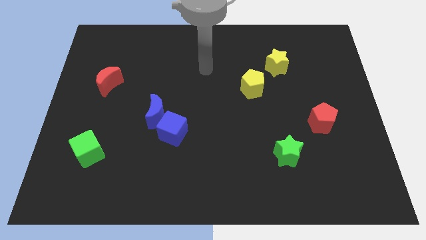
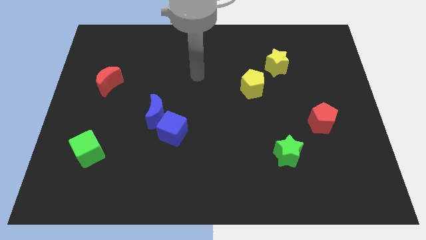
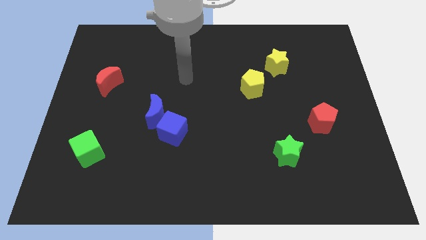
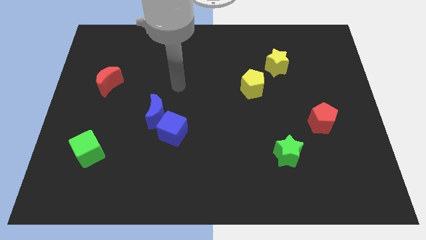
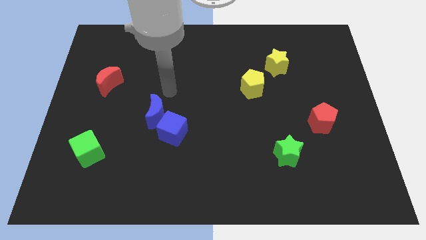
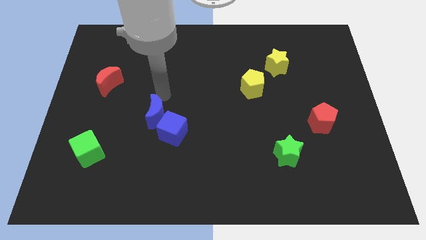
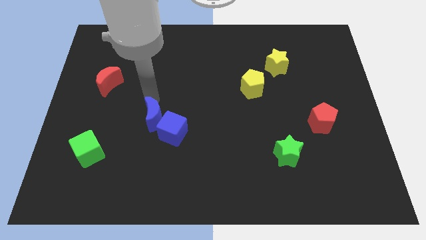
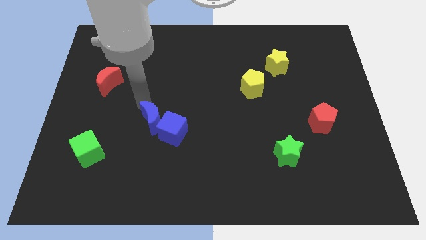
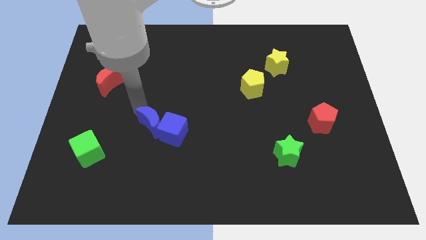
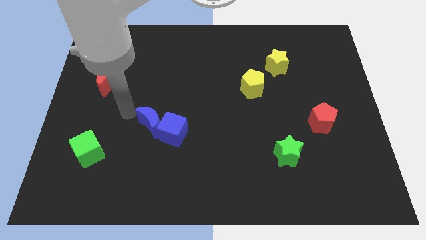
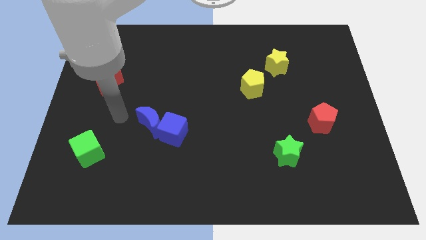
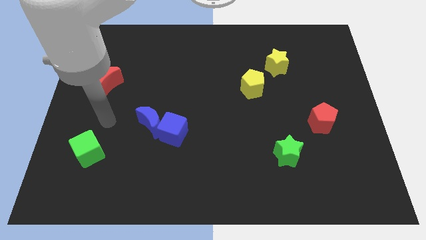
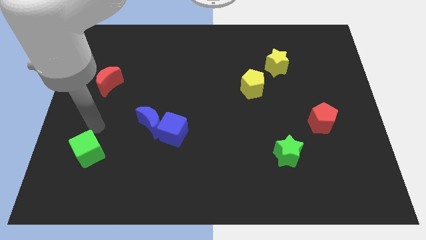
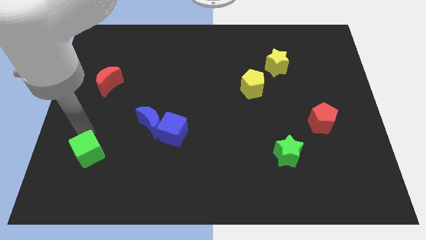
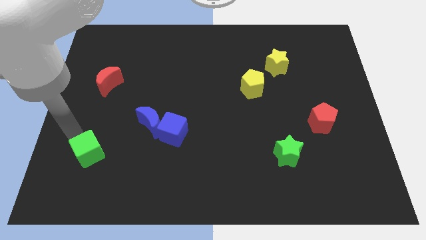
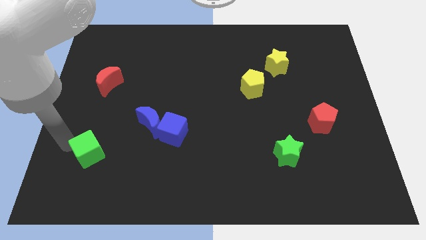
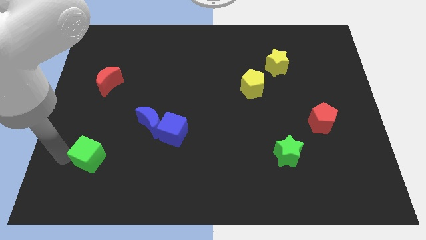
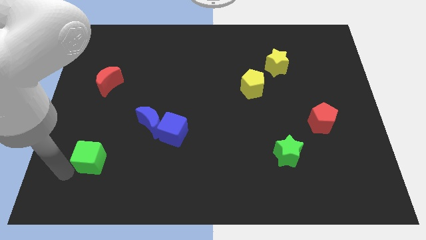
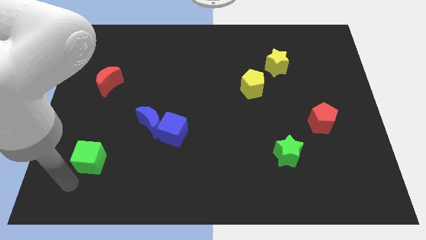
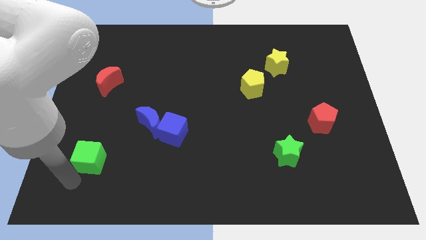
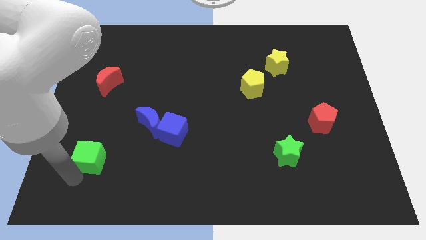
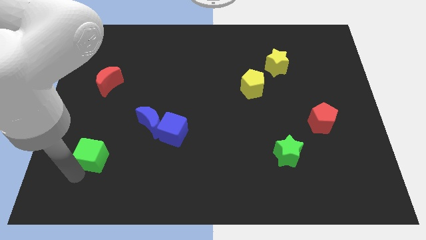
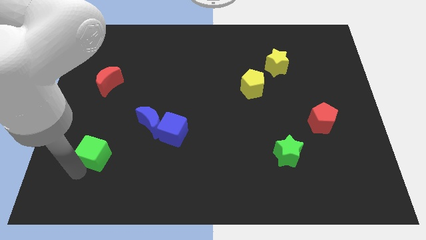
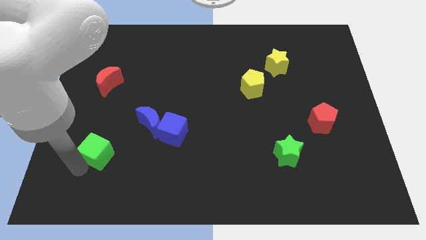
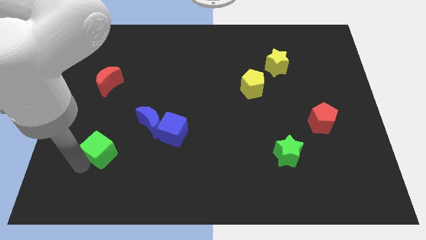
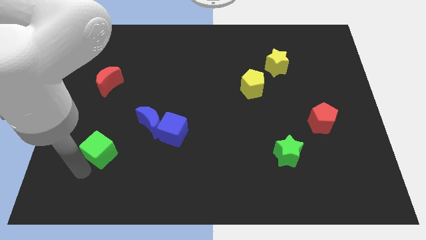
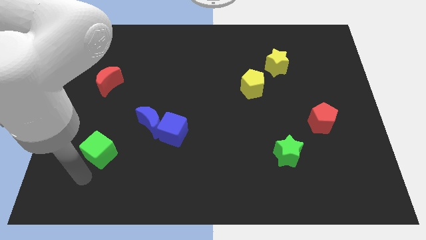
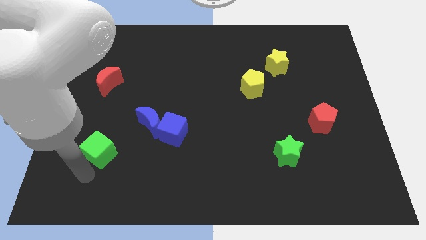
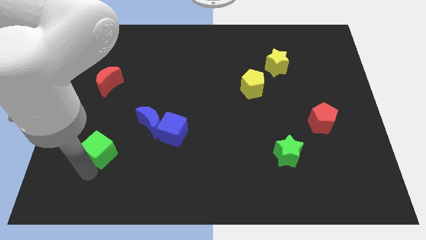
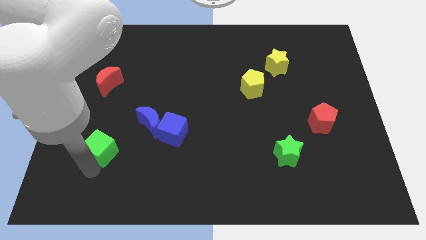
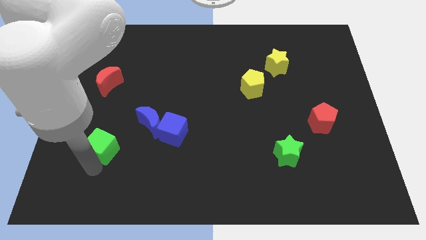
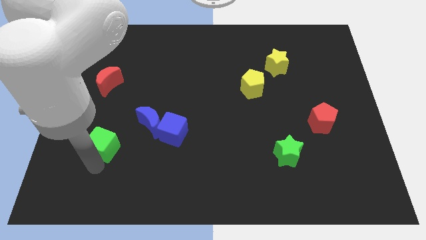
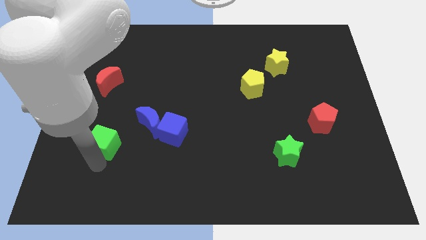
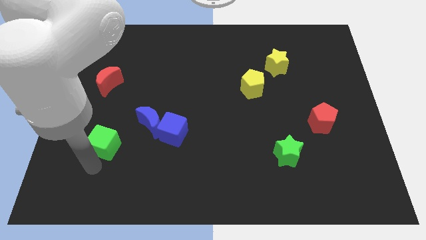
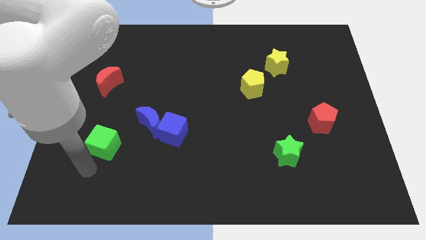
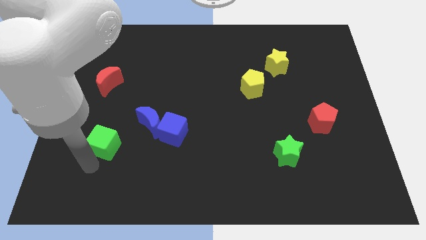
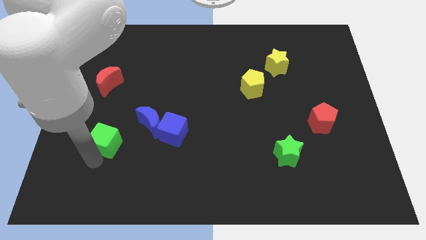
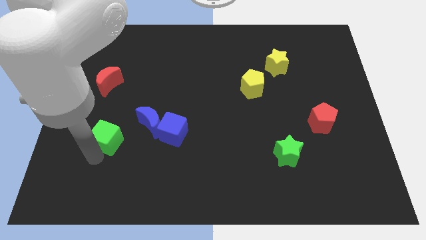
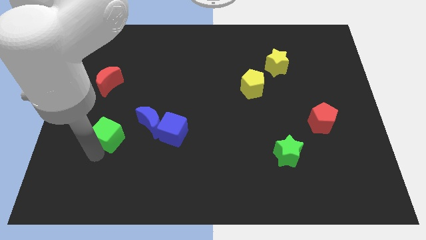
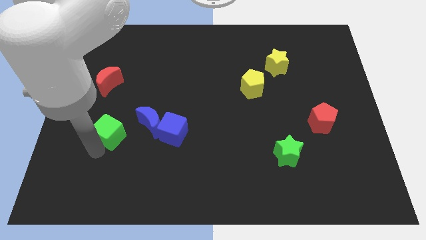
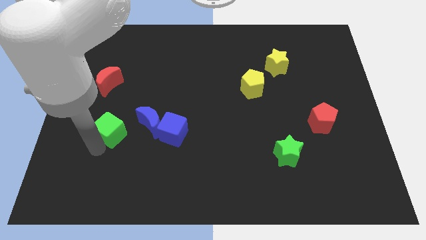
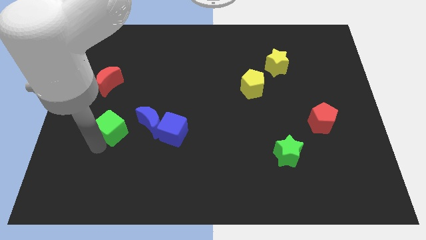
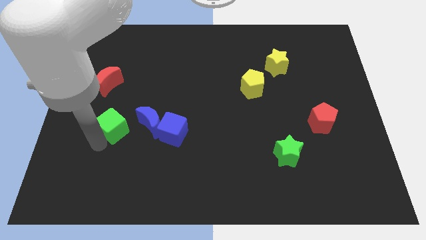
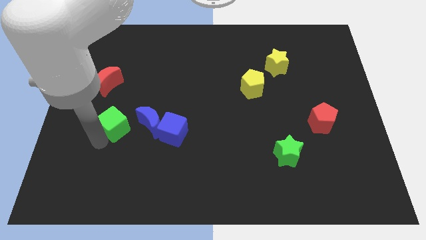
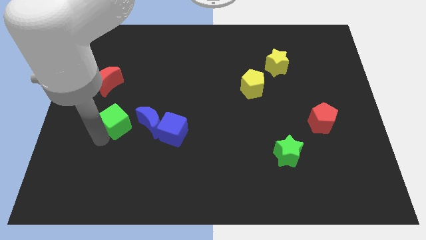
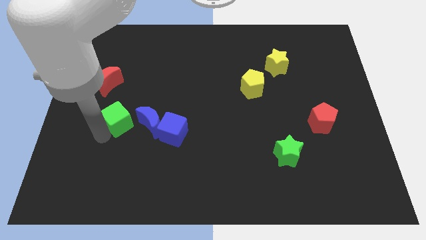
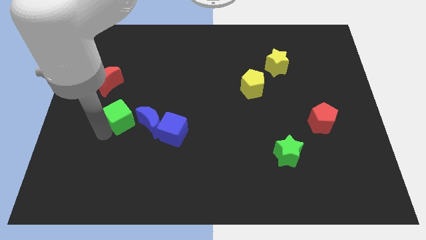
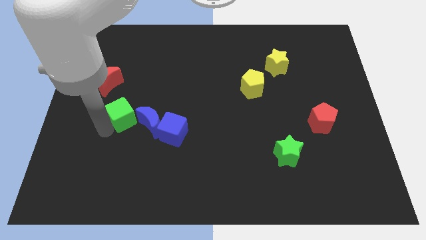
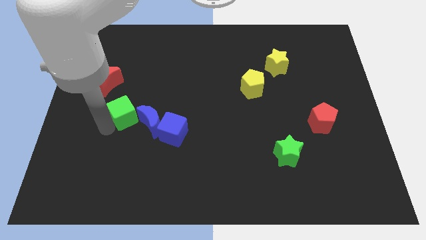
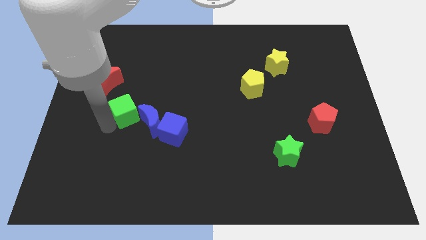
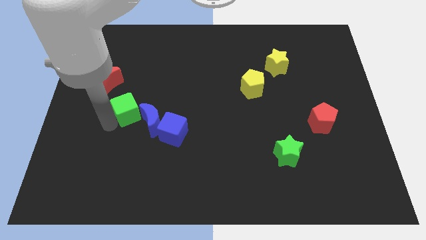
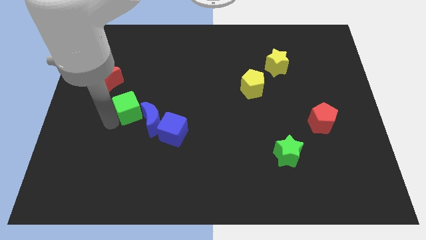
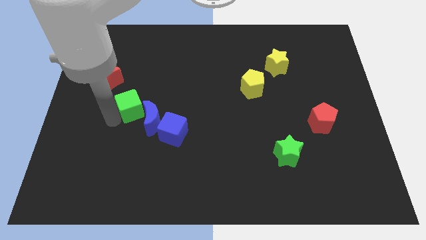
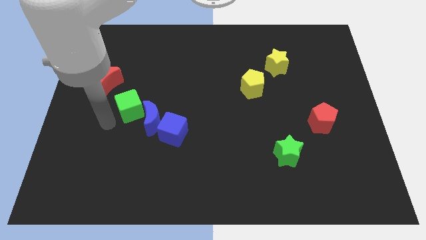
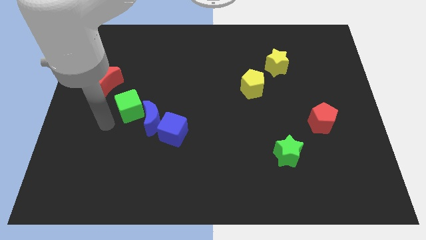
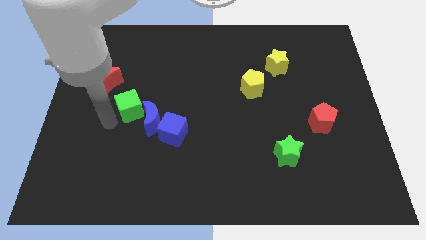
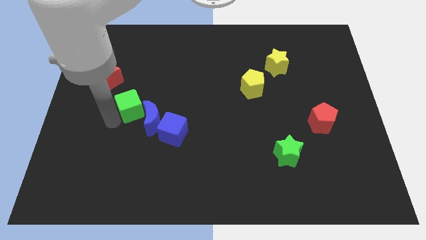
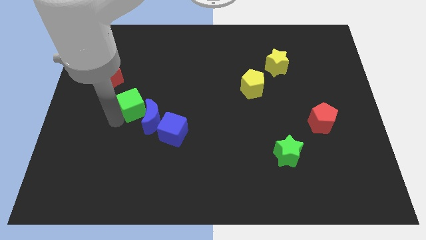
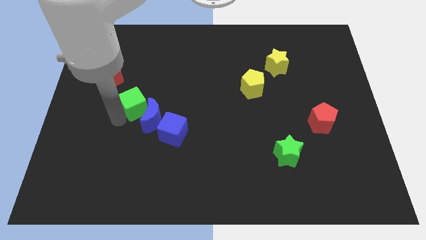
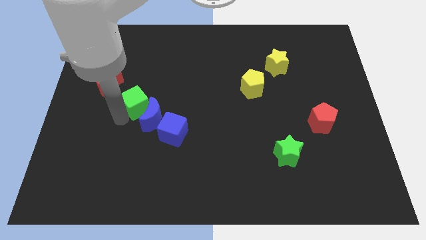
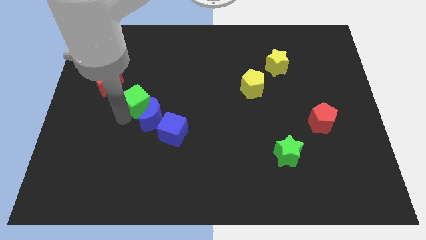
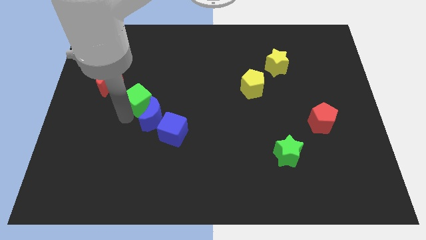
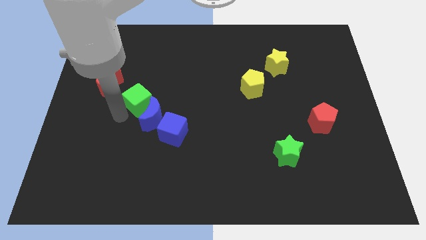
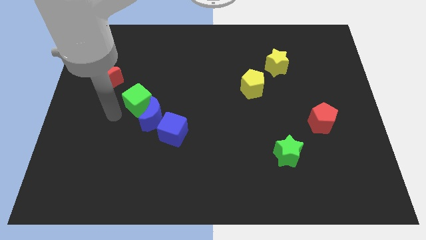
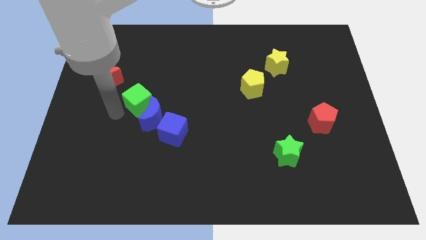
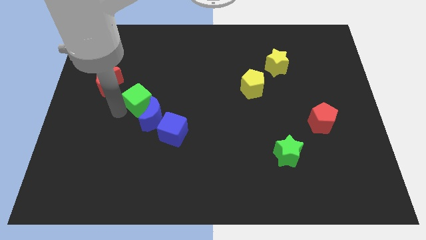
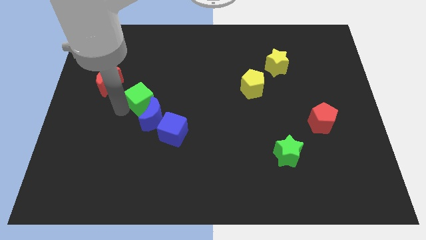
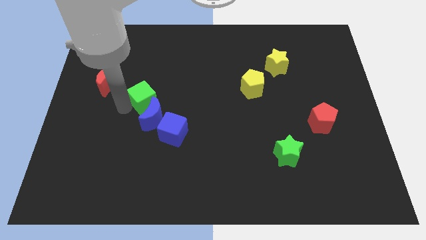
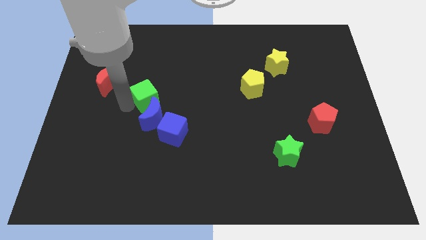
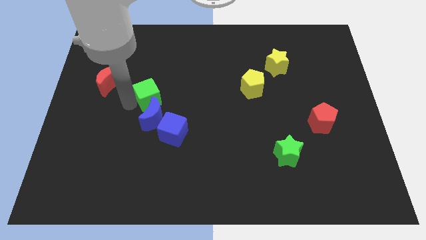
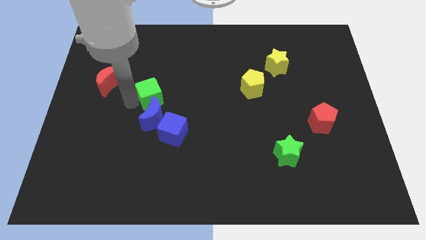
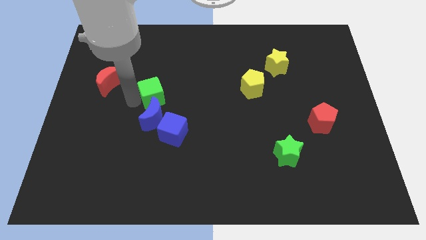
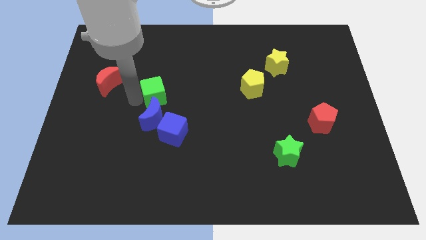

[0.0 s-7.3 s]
slide the green cube up and then to the right

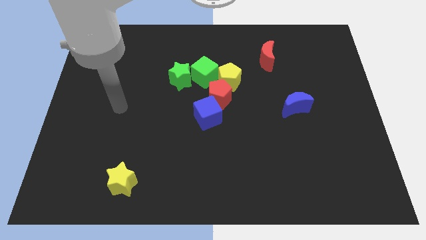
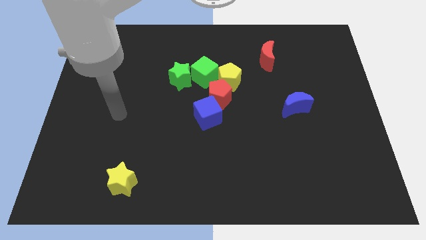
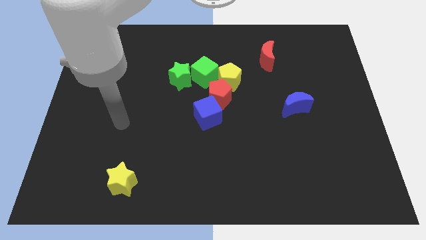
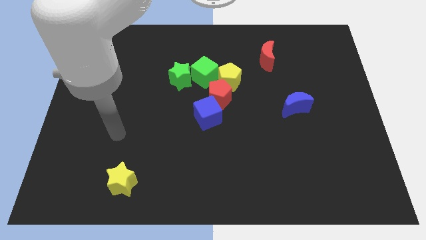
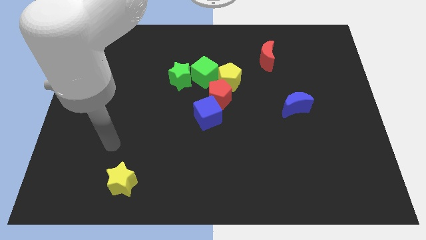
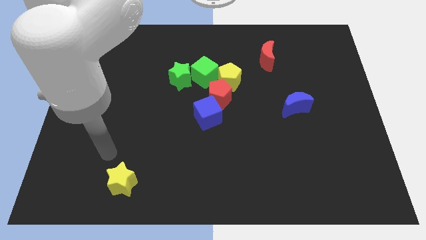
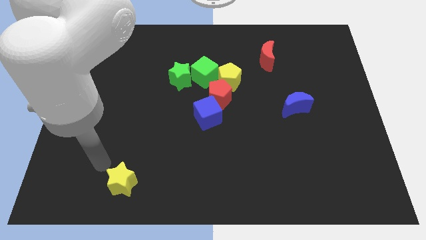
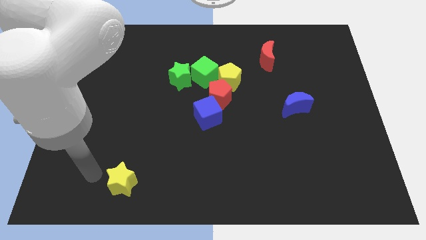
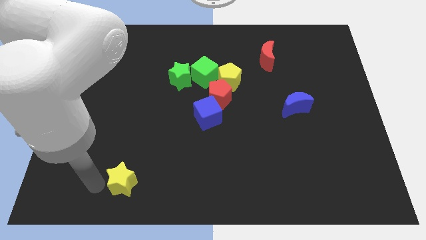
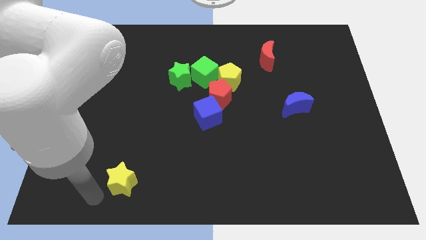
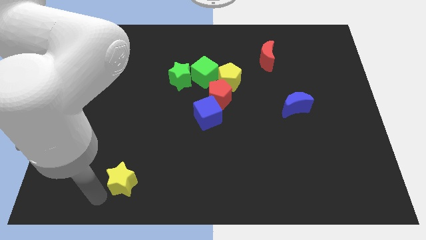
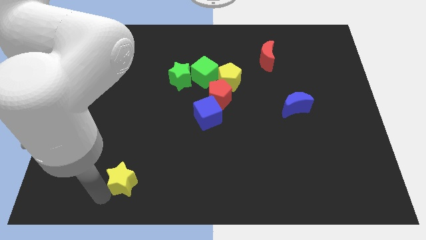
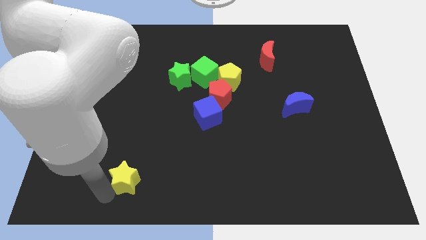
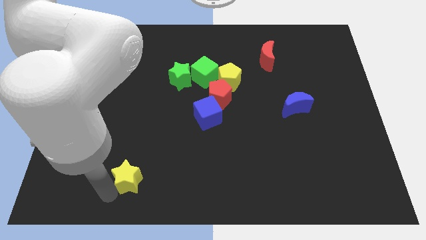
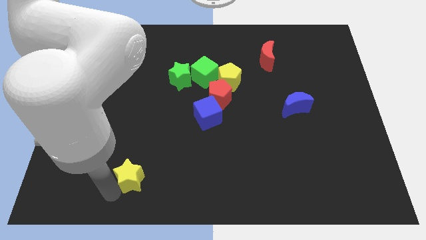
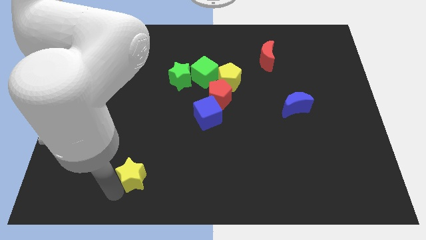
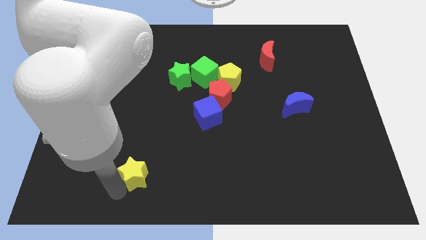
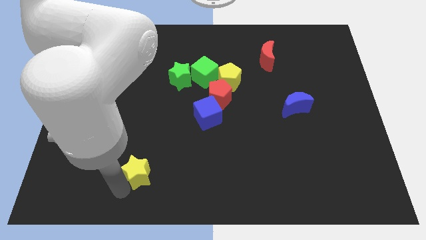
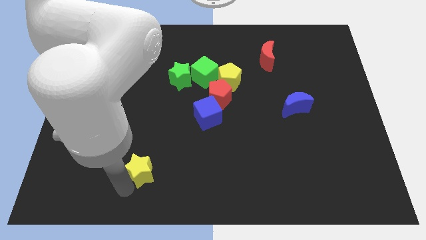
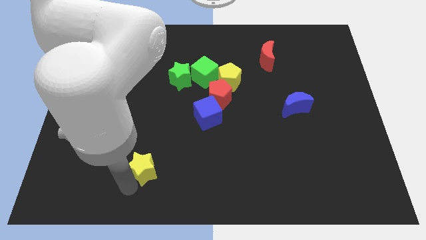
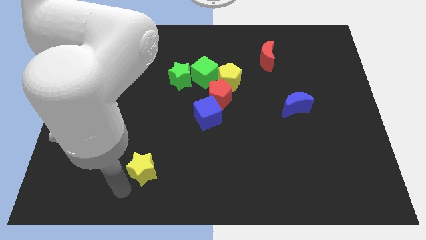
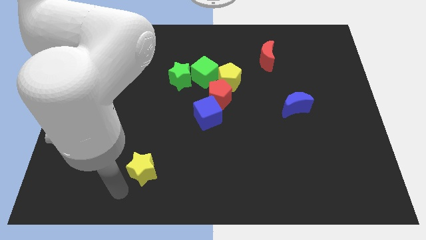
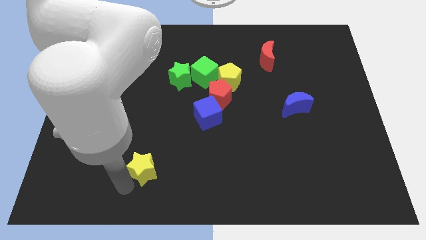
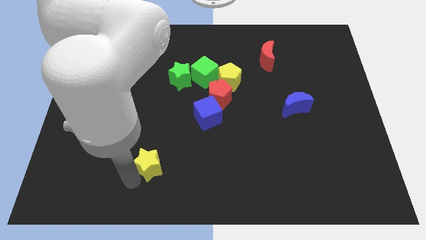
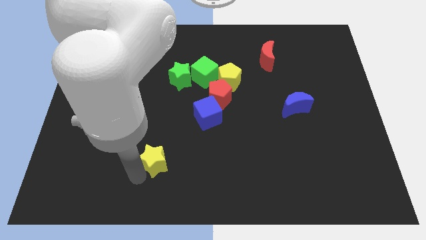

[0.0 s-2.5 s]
slightly push the yellow star up and to the right diagonally
